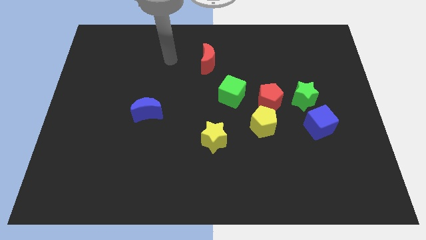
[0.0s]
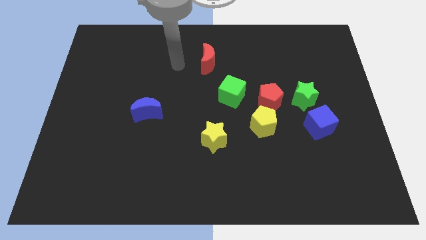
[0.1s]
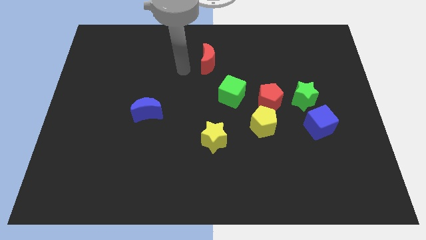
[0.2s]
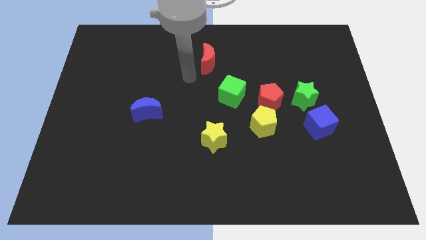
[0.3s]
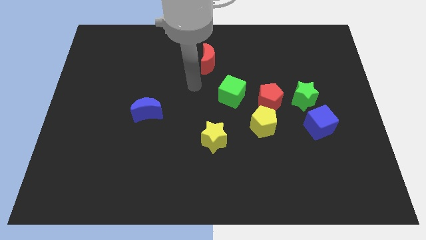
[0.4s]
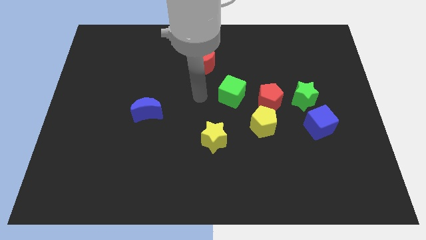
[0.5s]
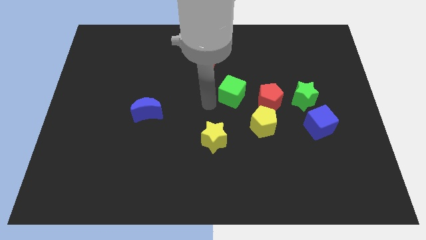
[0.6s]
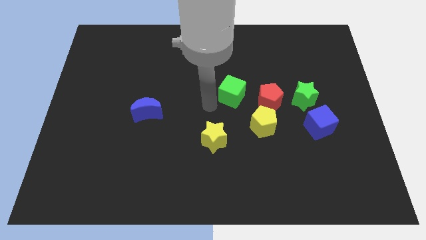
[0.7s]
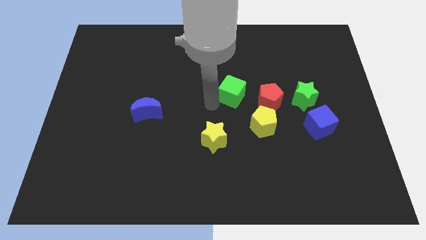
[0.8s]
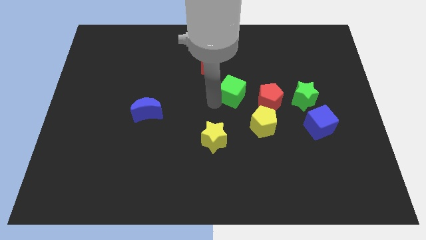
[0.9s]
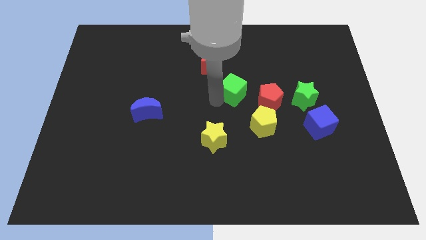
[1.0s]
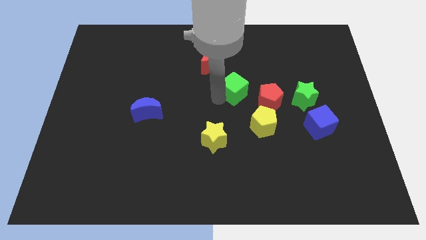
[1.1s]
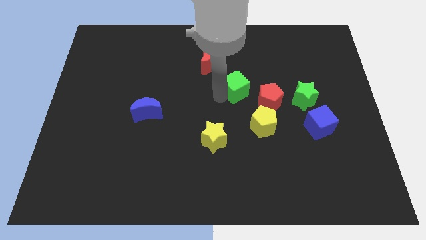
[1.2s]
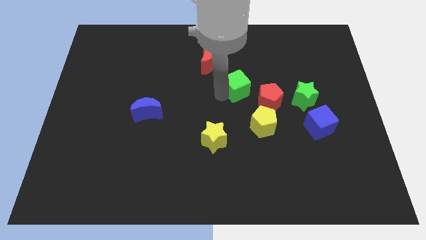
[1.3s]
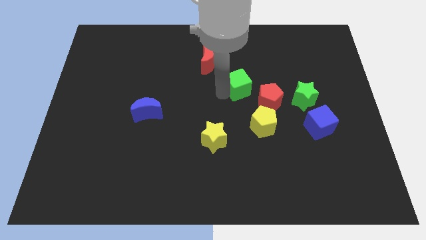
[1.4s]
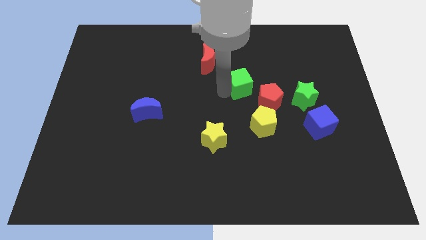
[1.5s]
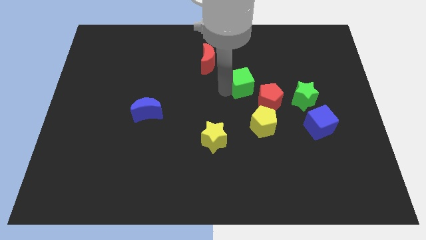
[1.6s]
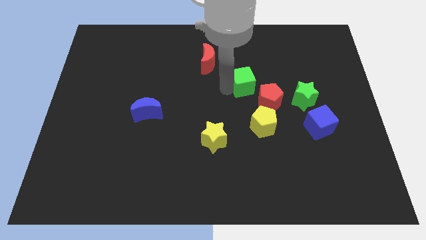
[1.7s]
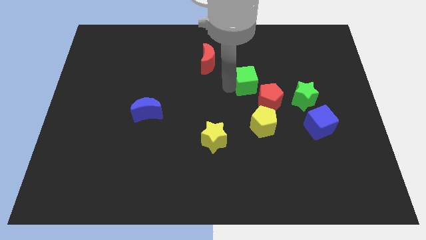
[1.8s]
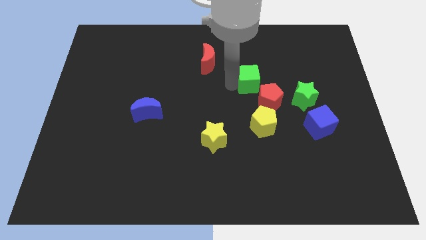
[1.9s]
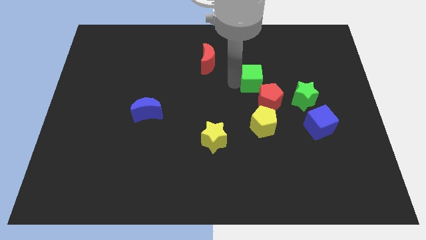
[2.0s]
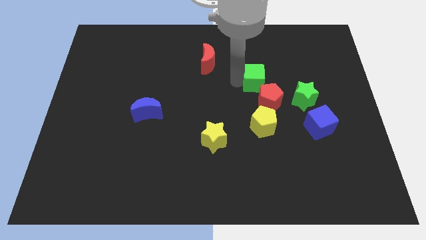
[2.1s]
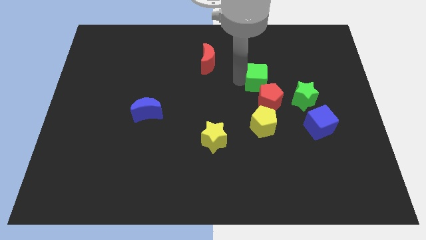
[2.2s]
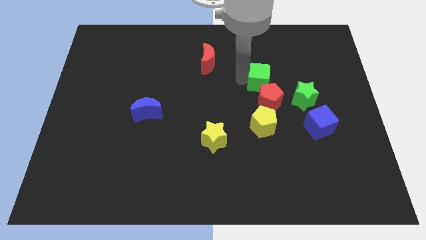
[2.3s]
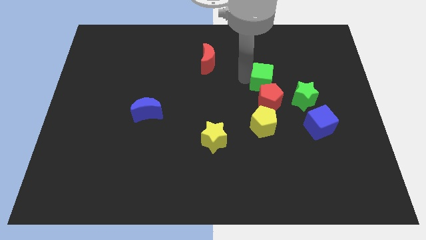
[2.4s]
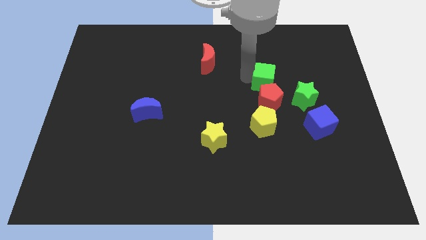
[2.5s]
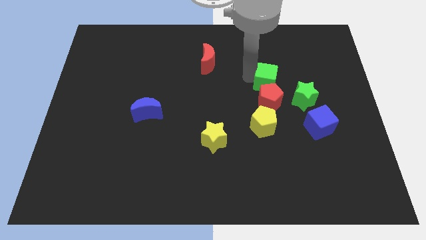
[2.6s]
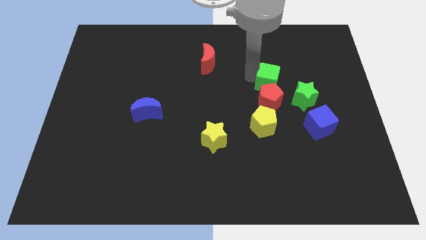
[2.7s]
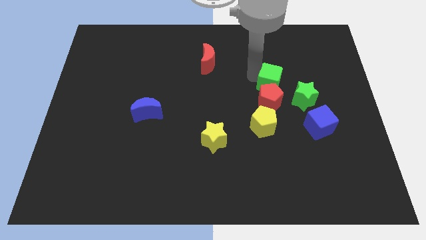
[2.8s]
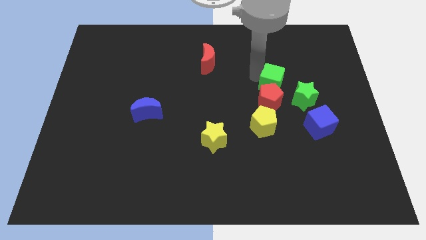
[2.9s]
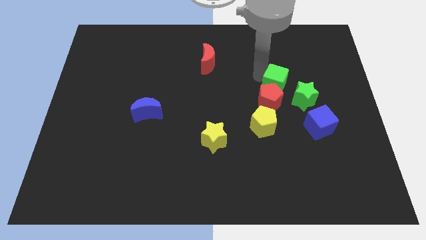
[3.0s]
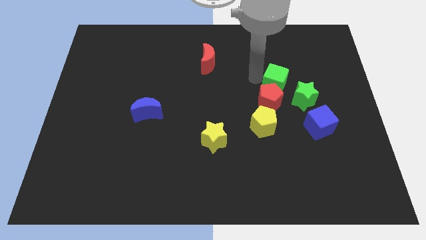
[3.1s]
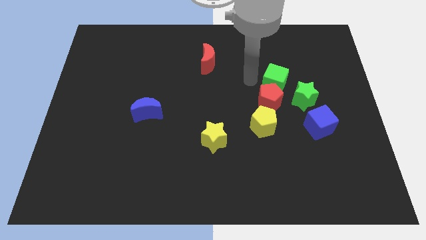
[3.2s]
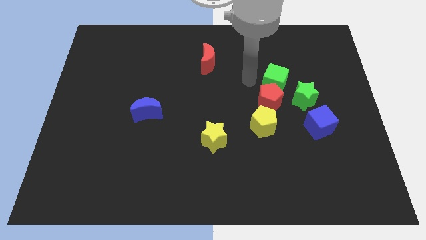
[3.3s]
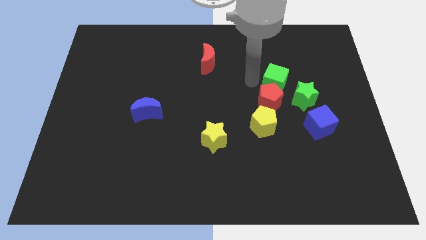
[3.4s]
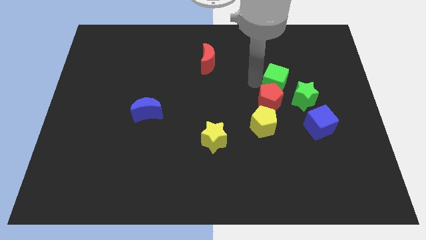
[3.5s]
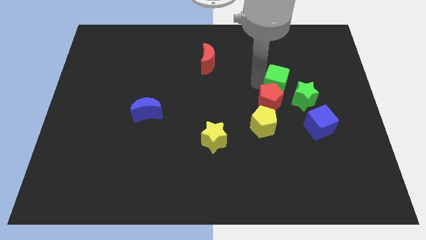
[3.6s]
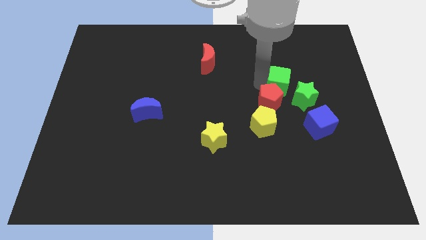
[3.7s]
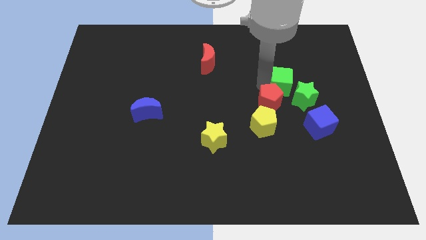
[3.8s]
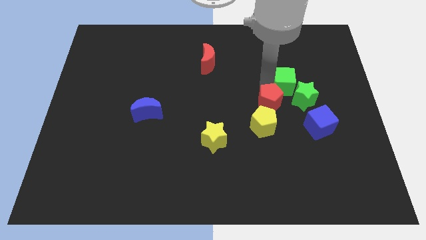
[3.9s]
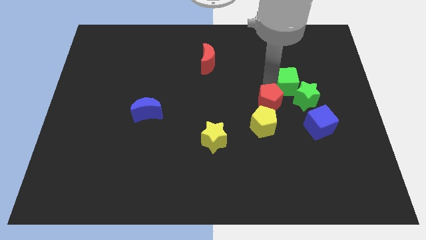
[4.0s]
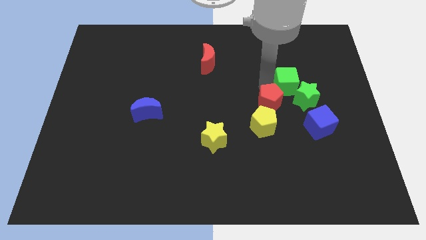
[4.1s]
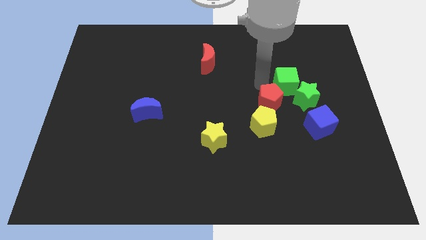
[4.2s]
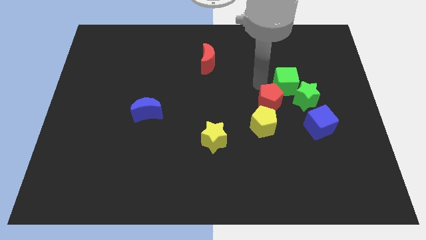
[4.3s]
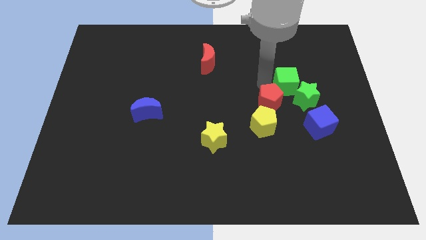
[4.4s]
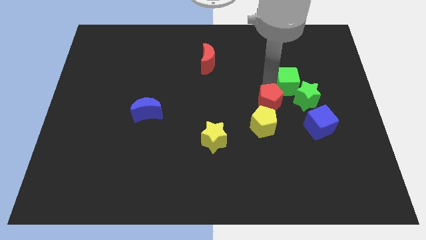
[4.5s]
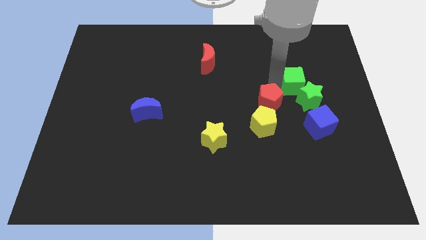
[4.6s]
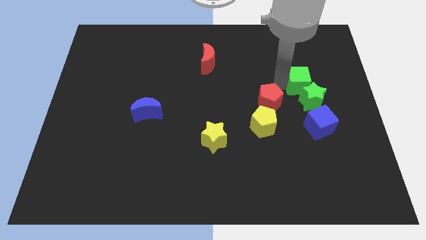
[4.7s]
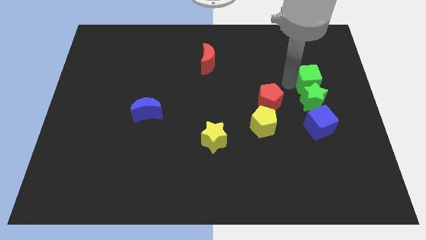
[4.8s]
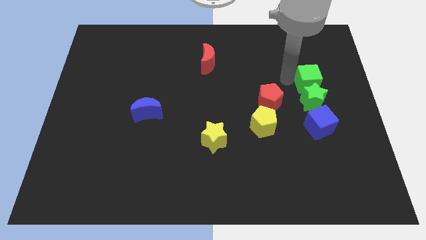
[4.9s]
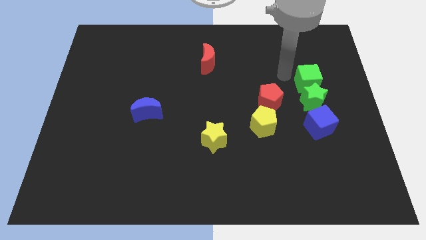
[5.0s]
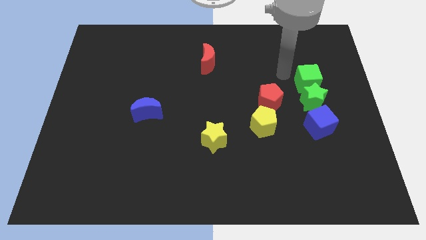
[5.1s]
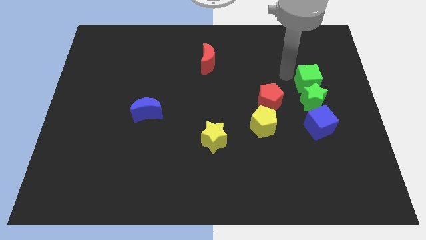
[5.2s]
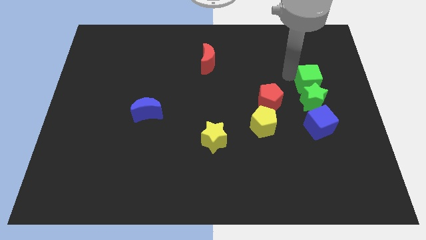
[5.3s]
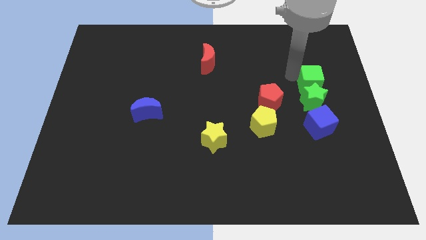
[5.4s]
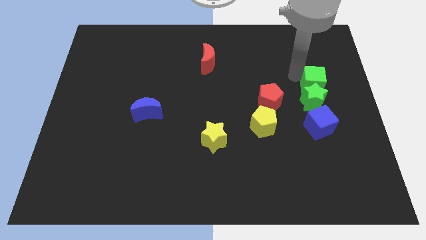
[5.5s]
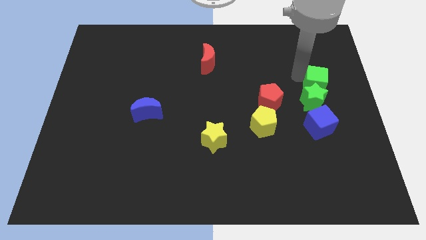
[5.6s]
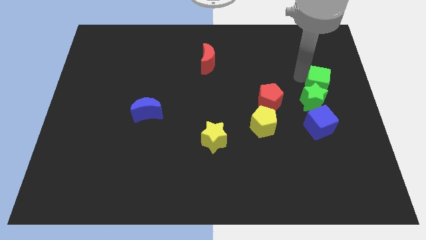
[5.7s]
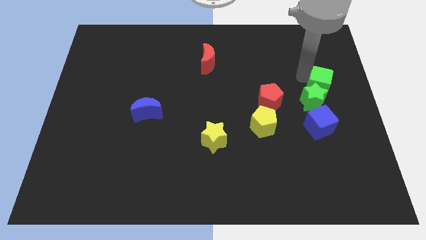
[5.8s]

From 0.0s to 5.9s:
slide the green cube to the center right
